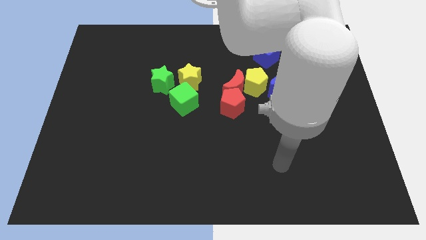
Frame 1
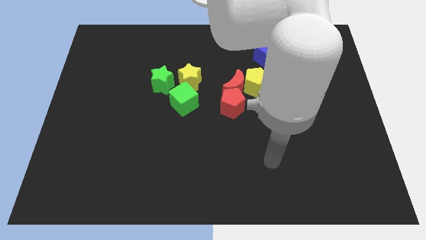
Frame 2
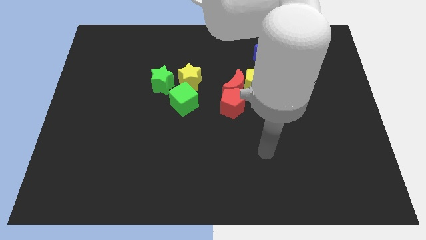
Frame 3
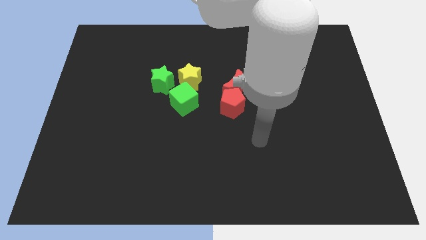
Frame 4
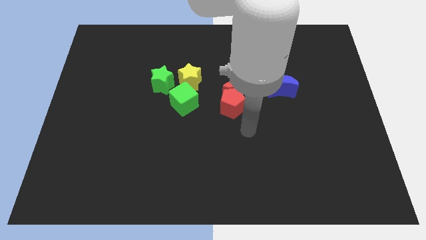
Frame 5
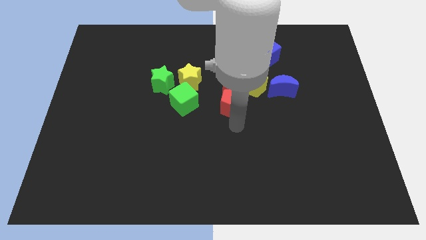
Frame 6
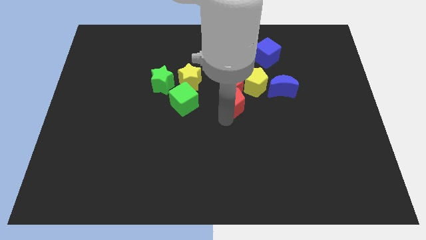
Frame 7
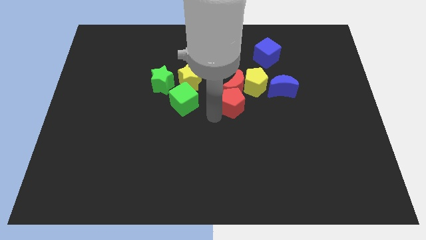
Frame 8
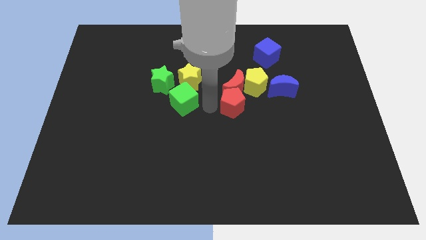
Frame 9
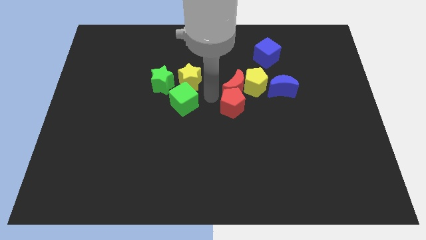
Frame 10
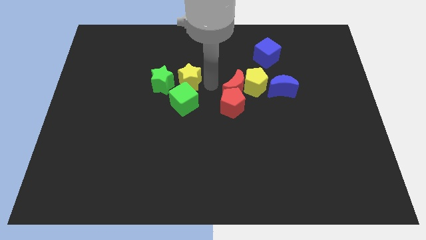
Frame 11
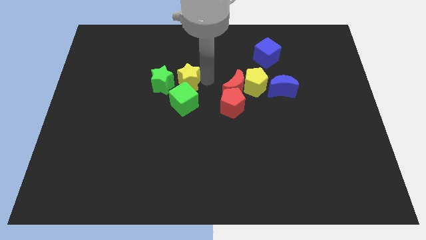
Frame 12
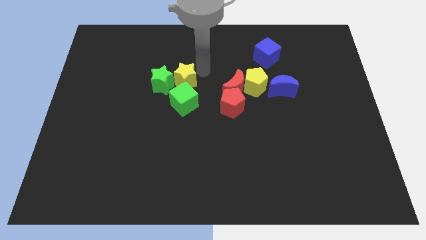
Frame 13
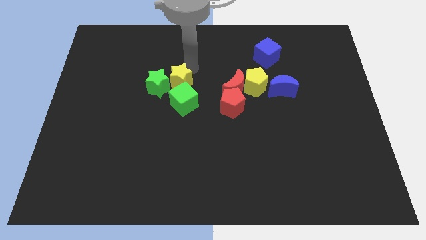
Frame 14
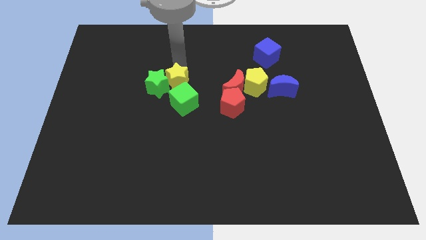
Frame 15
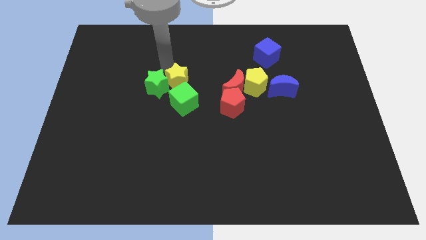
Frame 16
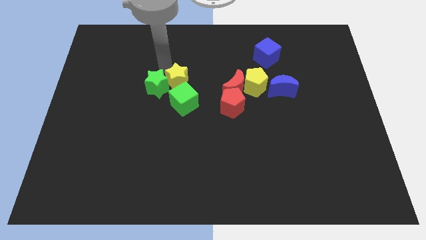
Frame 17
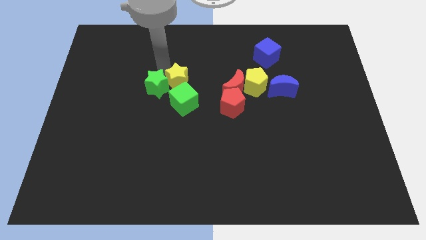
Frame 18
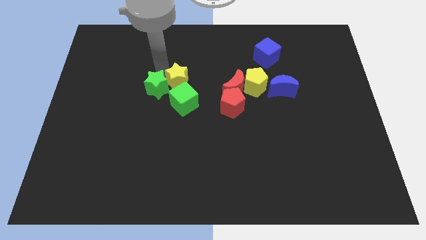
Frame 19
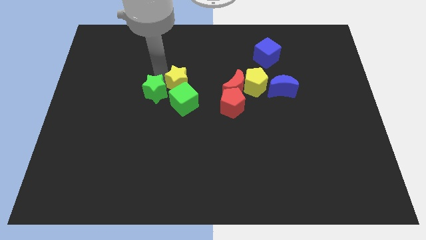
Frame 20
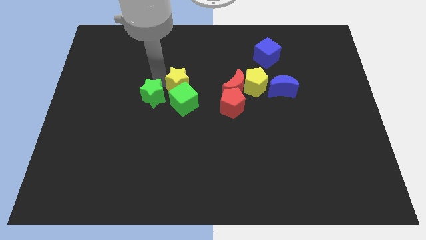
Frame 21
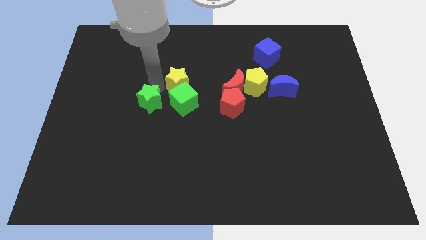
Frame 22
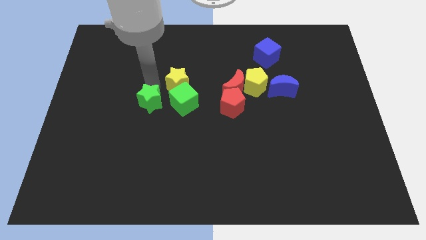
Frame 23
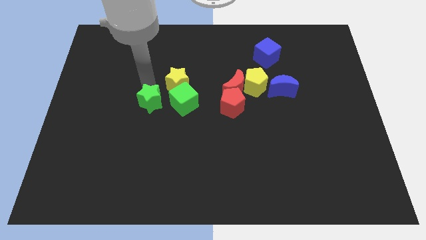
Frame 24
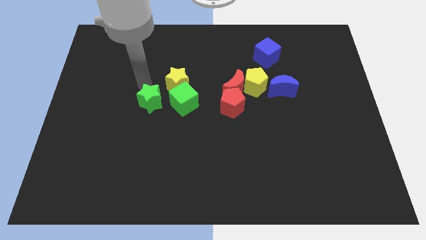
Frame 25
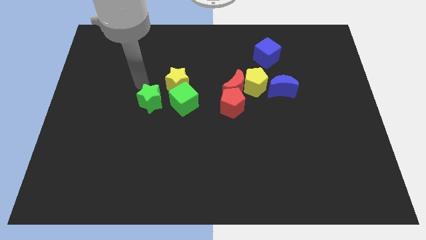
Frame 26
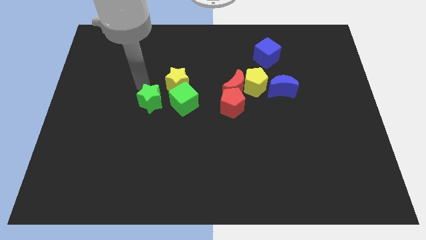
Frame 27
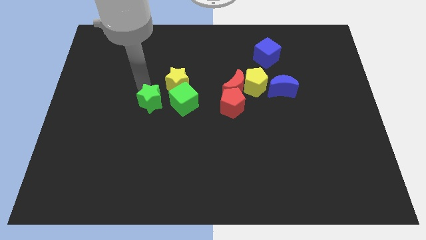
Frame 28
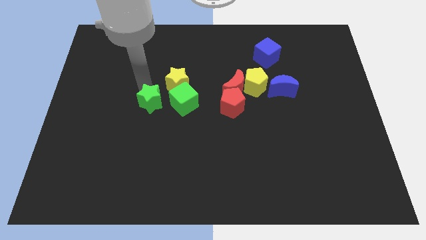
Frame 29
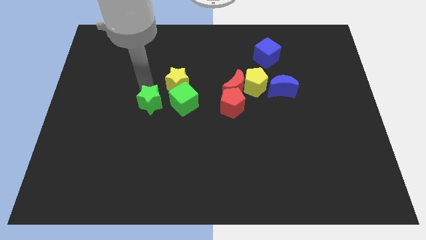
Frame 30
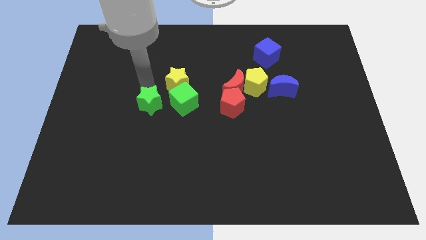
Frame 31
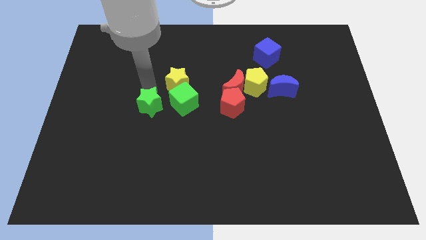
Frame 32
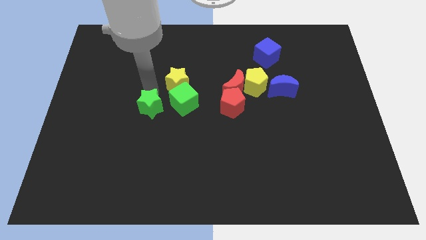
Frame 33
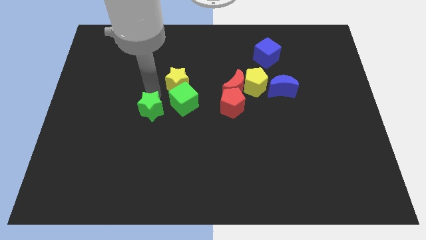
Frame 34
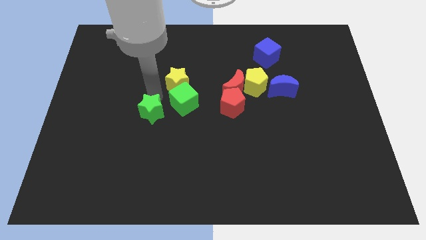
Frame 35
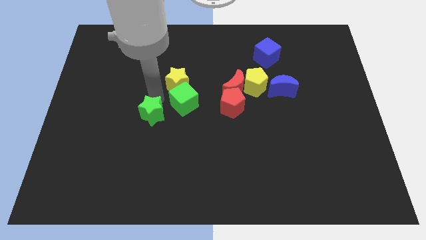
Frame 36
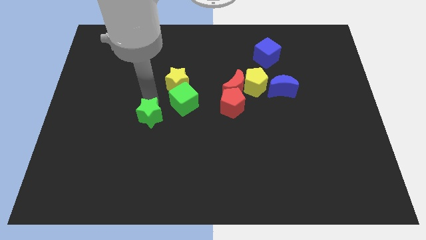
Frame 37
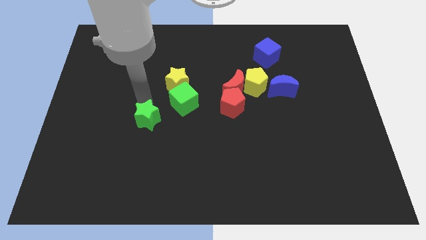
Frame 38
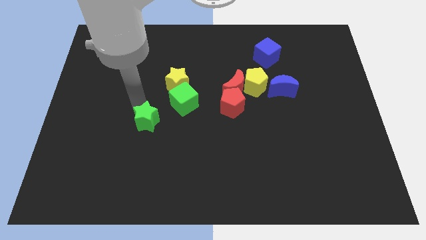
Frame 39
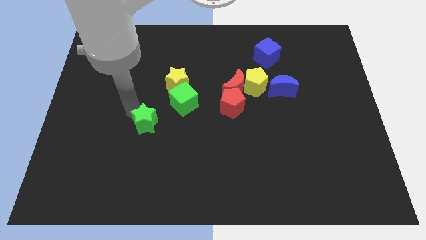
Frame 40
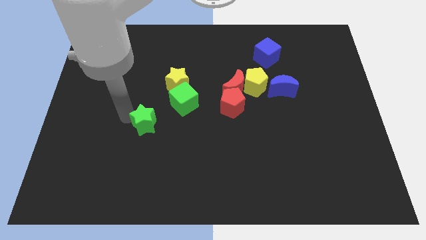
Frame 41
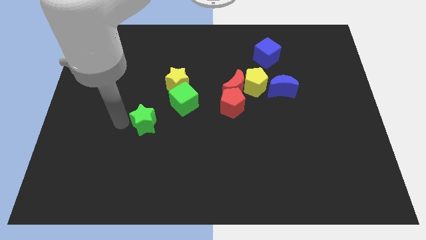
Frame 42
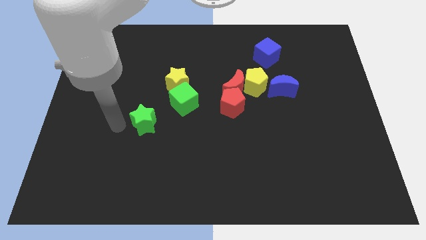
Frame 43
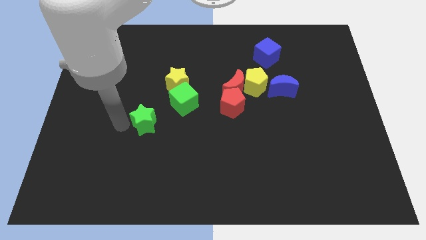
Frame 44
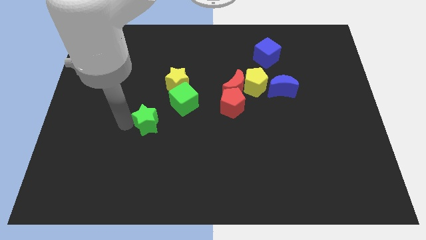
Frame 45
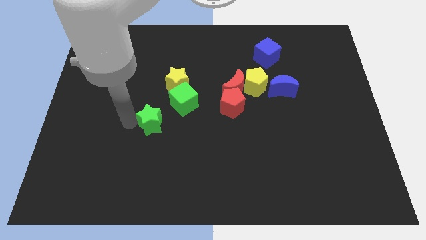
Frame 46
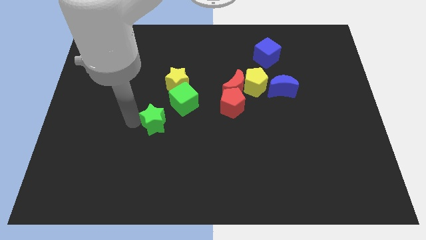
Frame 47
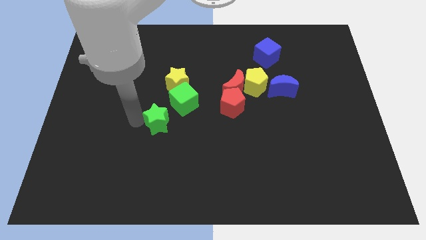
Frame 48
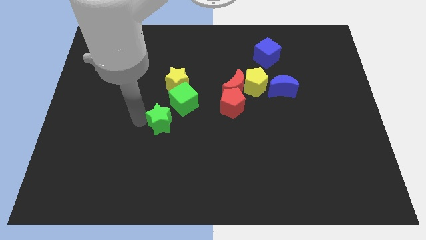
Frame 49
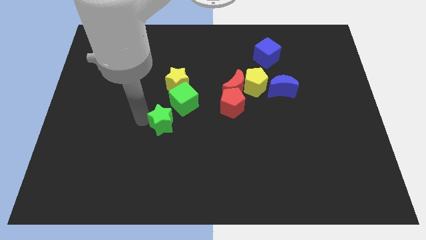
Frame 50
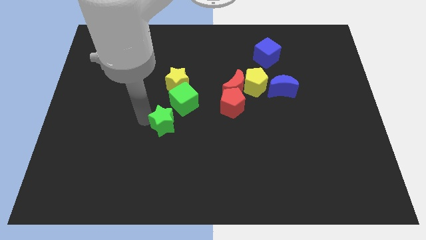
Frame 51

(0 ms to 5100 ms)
move the green star diagonally downwards and right a little bit

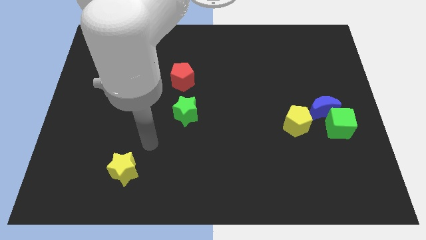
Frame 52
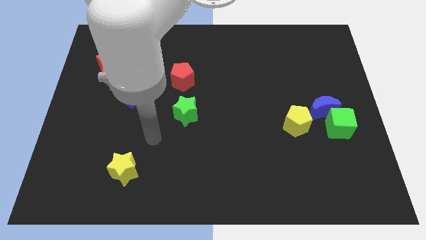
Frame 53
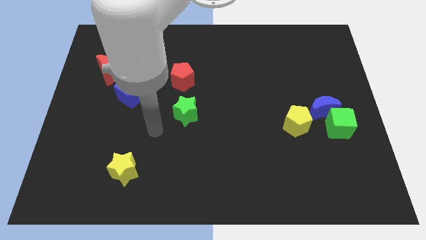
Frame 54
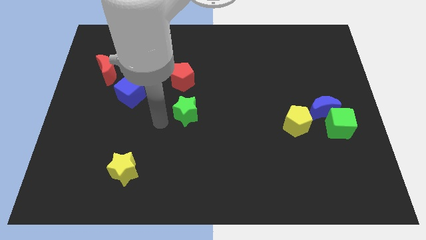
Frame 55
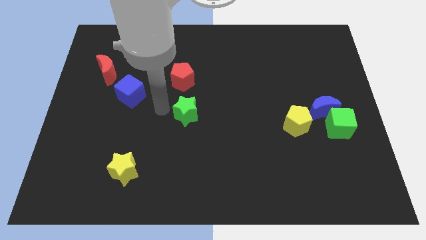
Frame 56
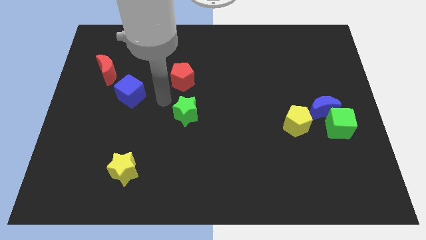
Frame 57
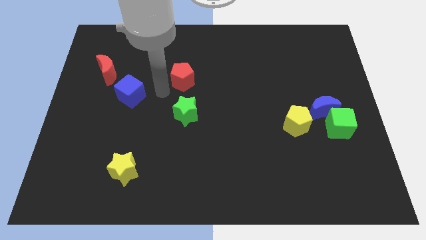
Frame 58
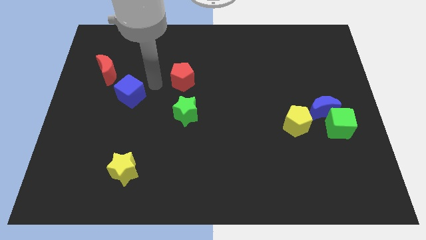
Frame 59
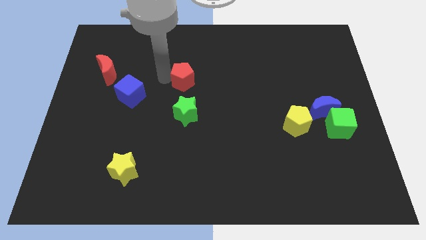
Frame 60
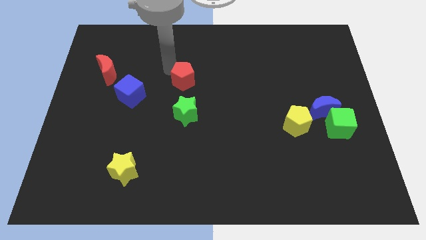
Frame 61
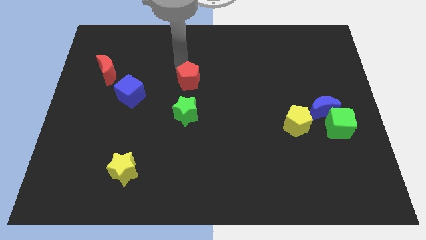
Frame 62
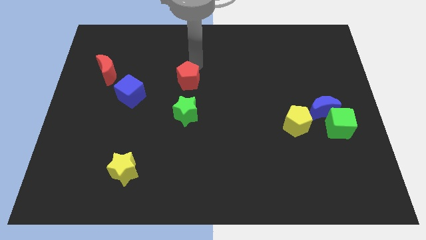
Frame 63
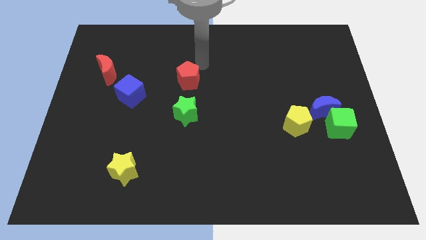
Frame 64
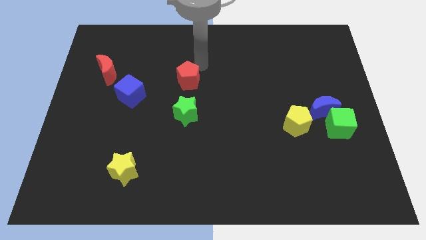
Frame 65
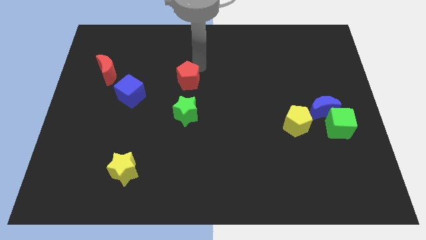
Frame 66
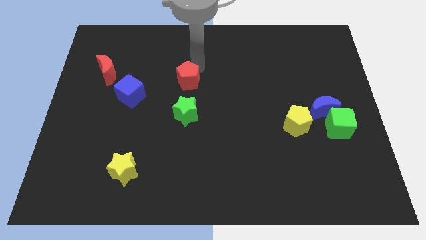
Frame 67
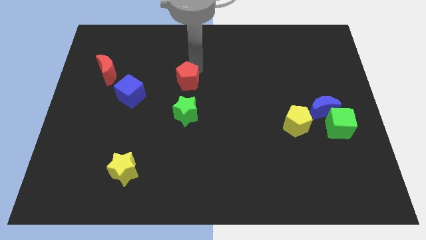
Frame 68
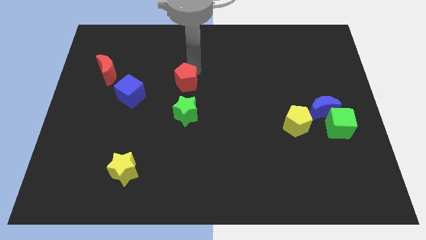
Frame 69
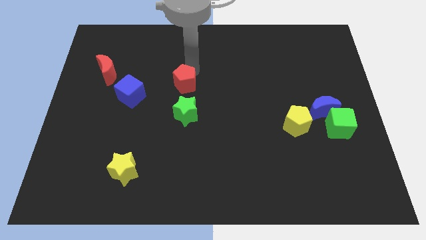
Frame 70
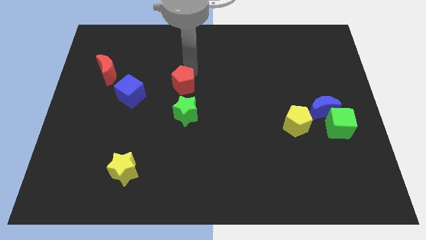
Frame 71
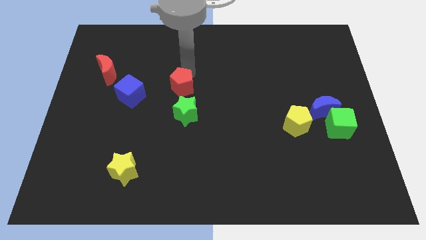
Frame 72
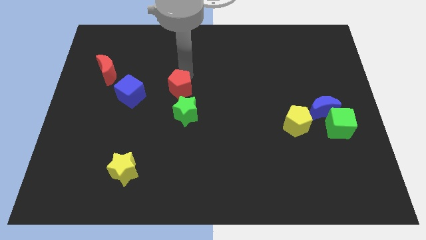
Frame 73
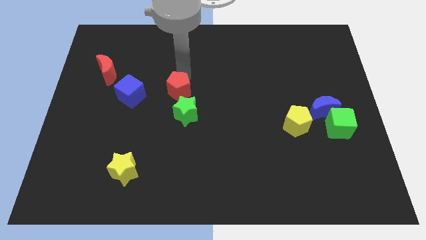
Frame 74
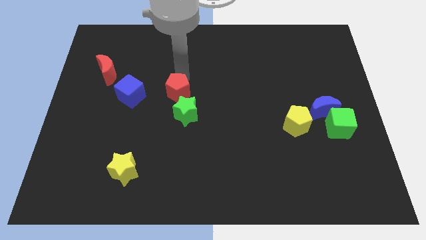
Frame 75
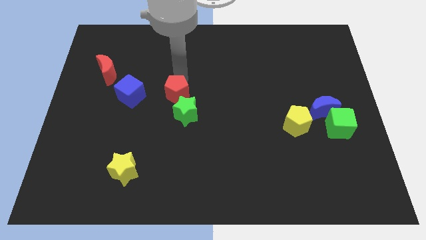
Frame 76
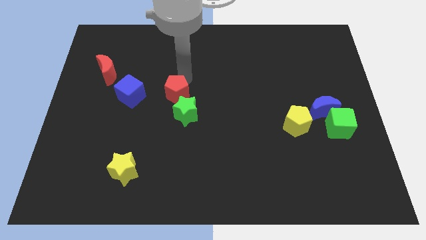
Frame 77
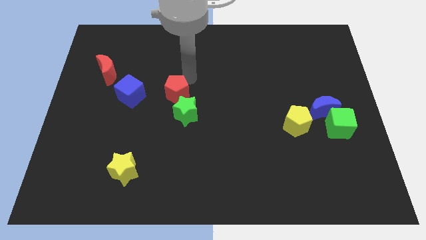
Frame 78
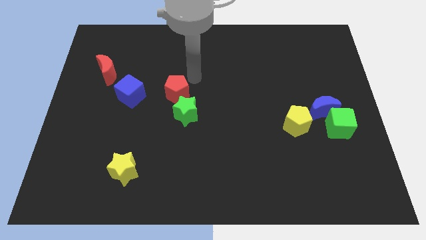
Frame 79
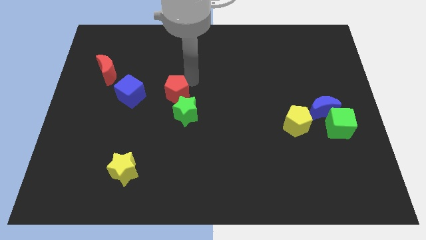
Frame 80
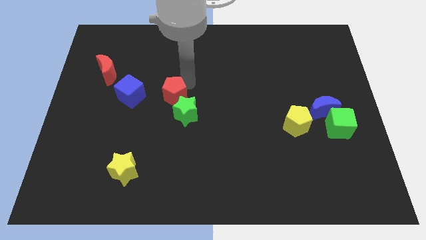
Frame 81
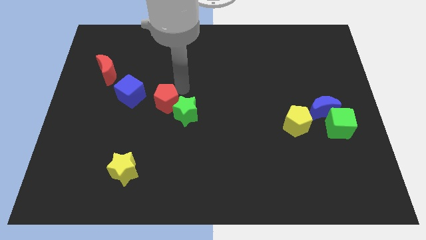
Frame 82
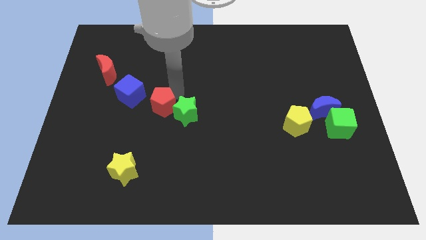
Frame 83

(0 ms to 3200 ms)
slightly push the red pentagon downwards
